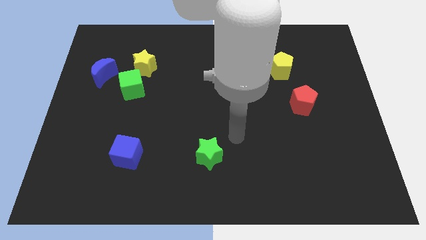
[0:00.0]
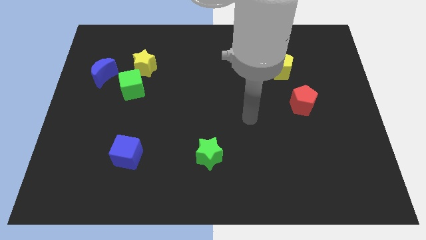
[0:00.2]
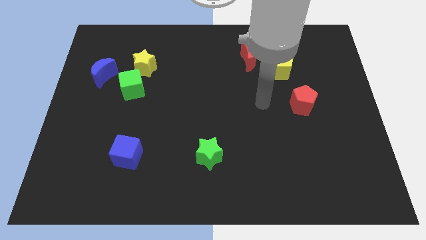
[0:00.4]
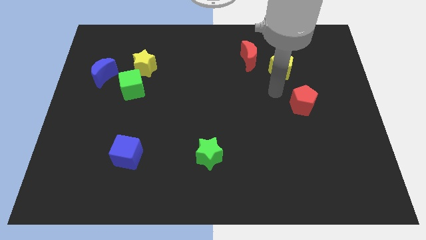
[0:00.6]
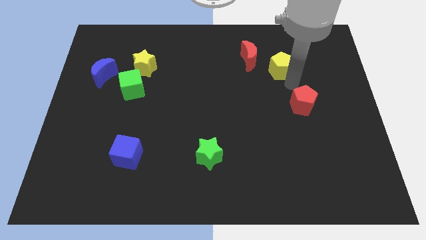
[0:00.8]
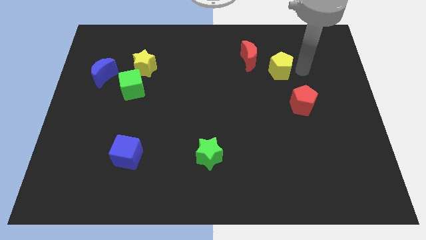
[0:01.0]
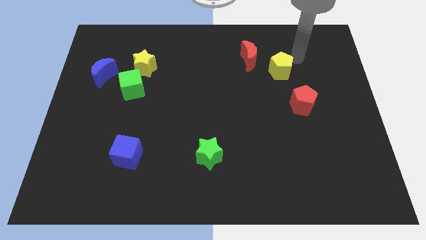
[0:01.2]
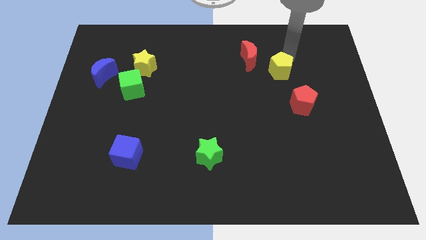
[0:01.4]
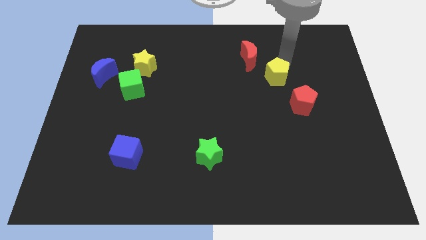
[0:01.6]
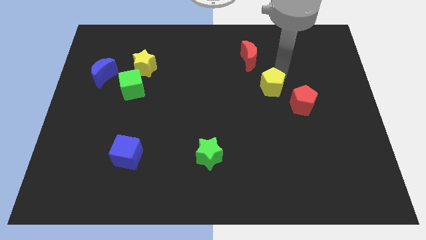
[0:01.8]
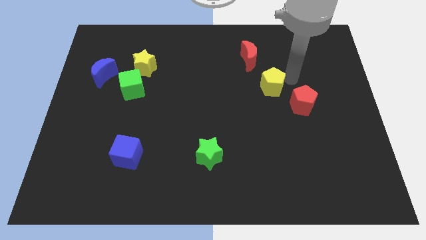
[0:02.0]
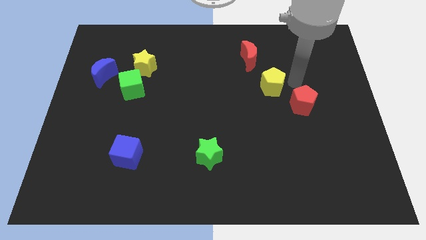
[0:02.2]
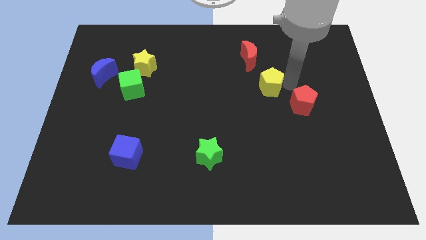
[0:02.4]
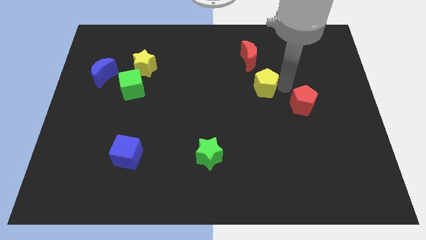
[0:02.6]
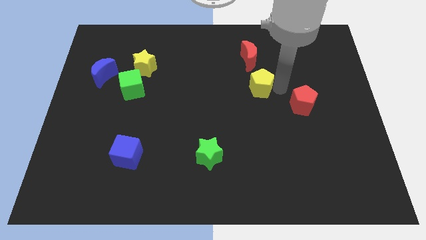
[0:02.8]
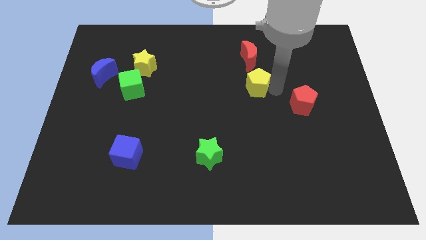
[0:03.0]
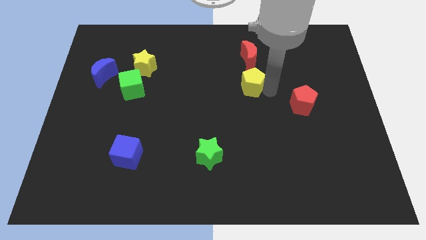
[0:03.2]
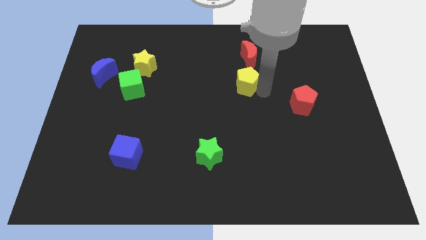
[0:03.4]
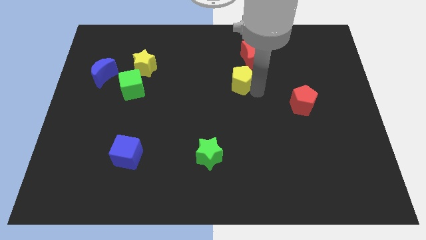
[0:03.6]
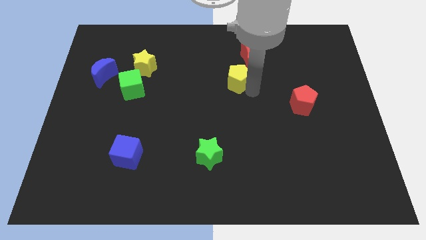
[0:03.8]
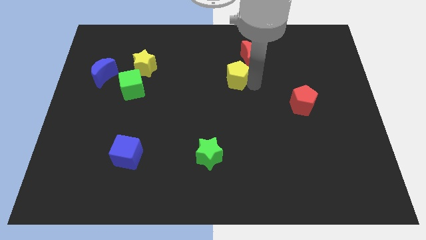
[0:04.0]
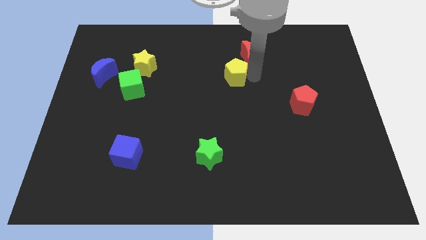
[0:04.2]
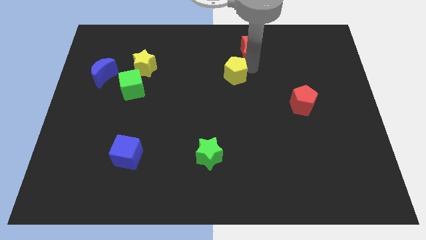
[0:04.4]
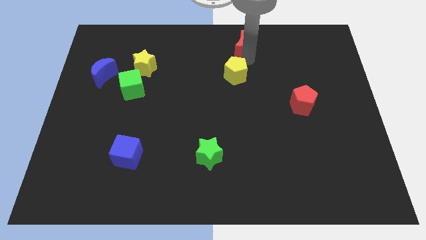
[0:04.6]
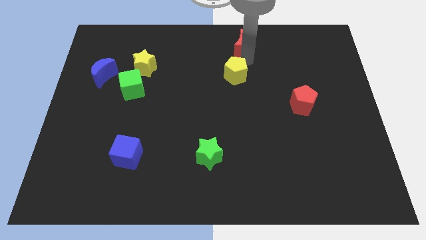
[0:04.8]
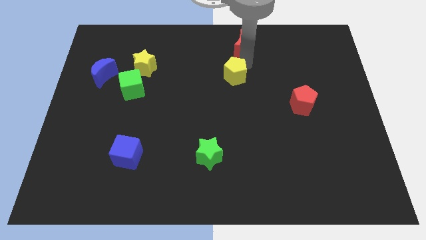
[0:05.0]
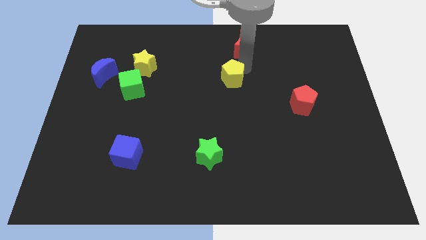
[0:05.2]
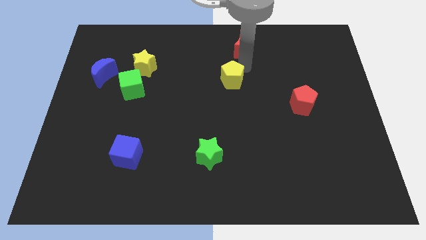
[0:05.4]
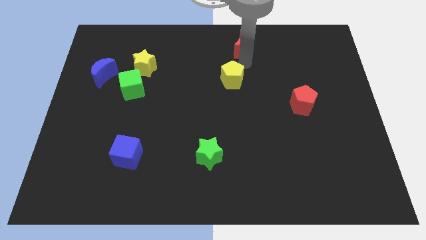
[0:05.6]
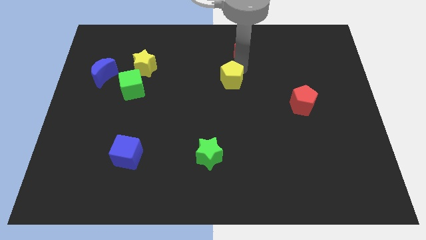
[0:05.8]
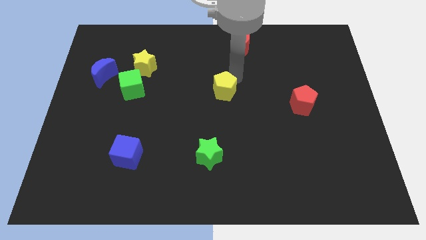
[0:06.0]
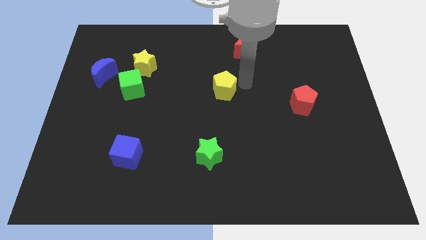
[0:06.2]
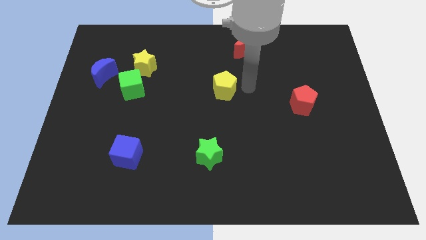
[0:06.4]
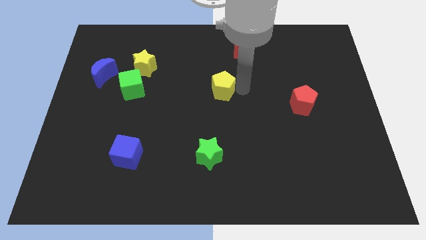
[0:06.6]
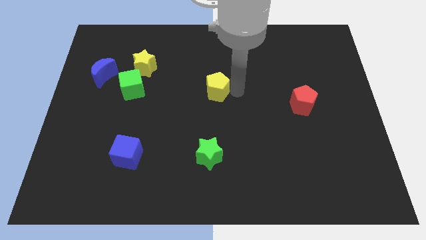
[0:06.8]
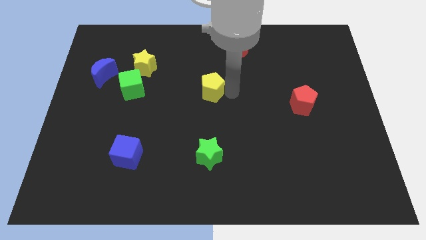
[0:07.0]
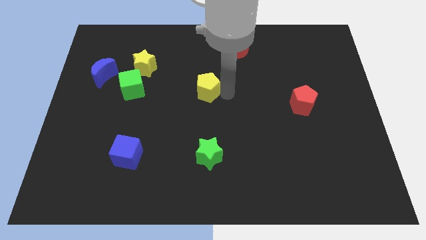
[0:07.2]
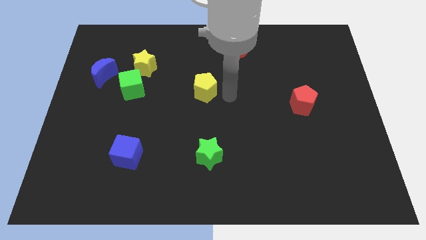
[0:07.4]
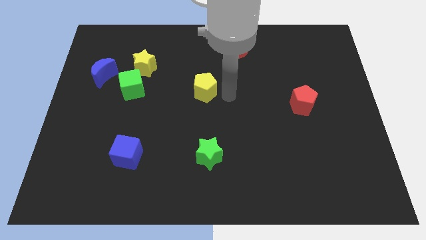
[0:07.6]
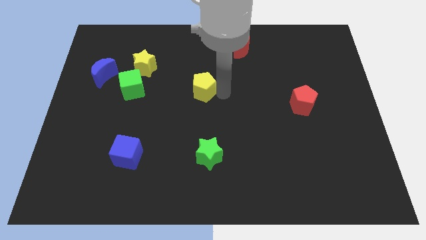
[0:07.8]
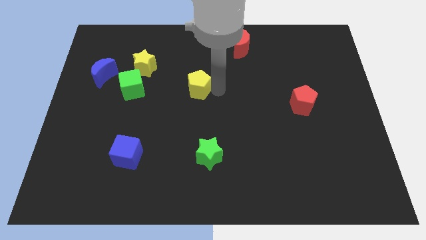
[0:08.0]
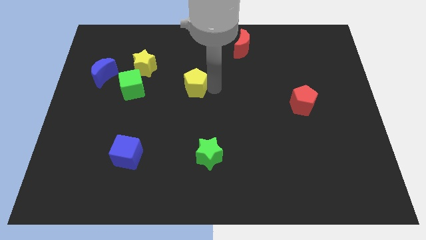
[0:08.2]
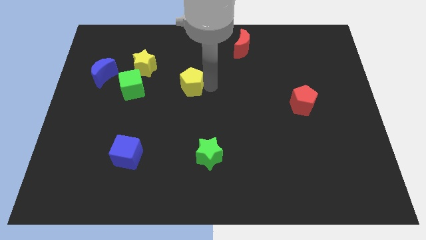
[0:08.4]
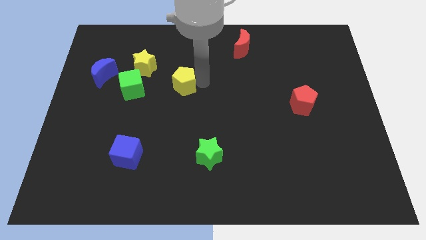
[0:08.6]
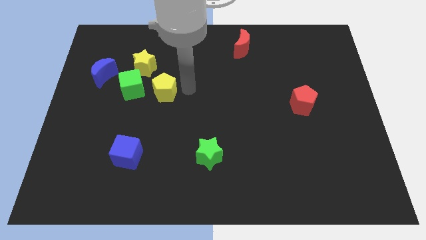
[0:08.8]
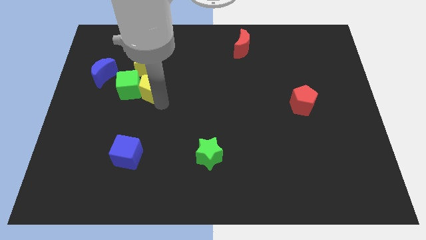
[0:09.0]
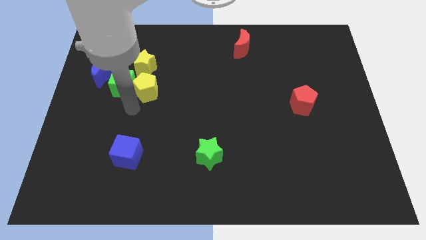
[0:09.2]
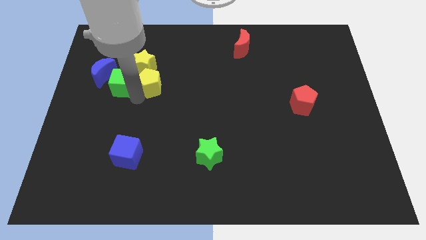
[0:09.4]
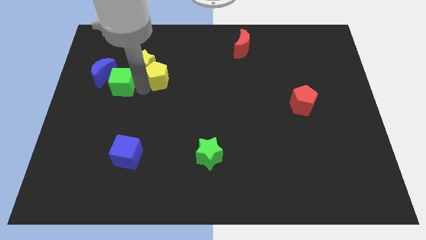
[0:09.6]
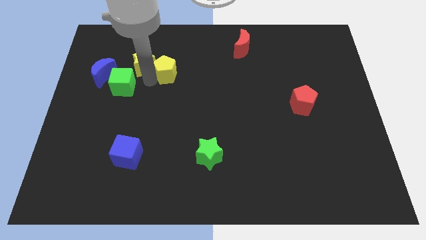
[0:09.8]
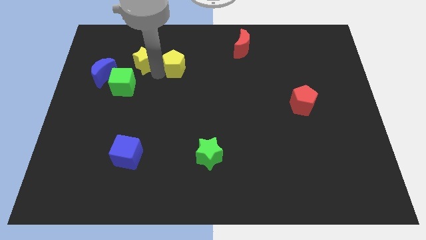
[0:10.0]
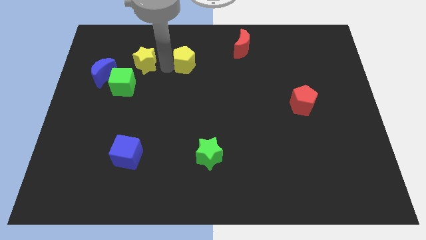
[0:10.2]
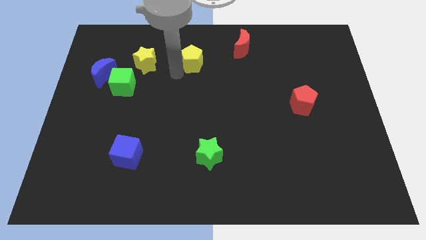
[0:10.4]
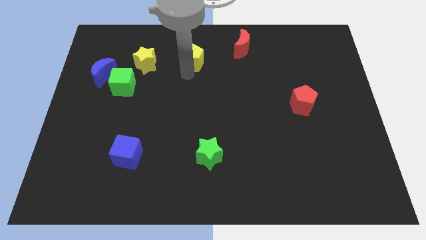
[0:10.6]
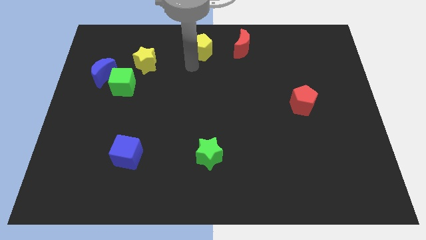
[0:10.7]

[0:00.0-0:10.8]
slide the yellow pentagon to the top

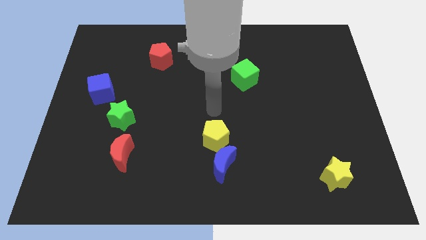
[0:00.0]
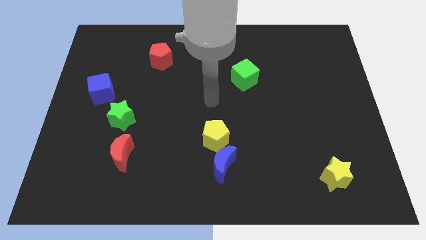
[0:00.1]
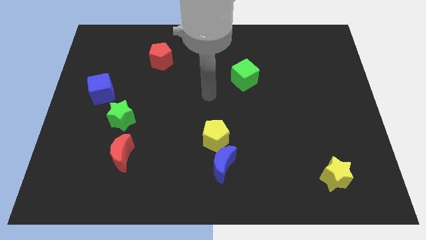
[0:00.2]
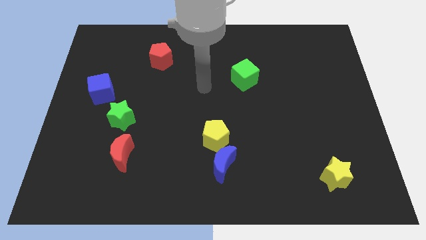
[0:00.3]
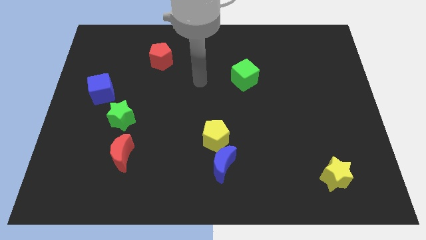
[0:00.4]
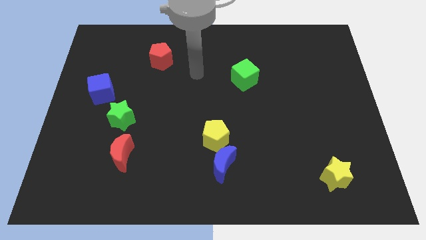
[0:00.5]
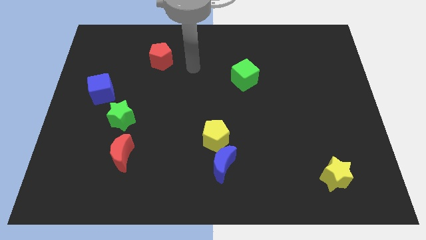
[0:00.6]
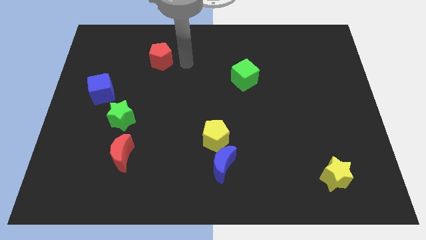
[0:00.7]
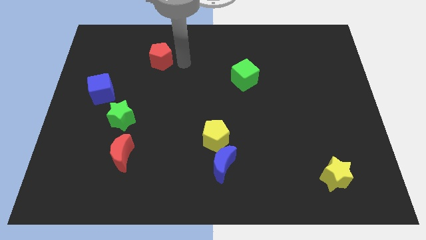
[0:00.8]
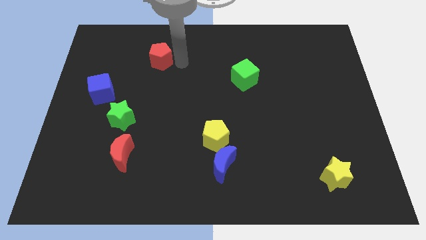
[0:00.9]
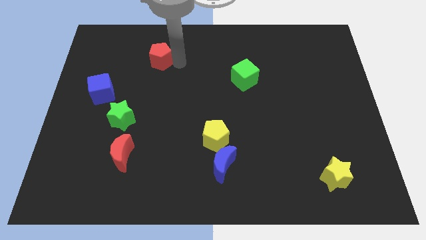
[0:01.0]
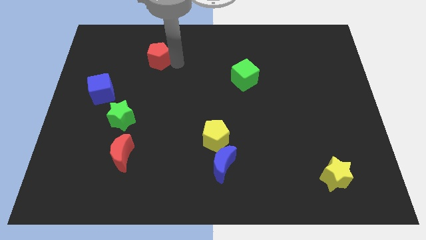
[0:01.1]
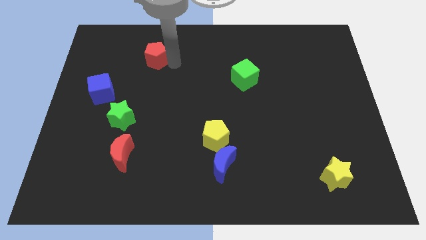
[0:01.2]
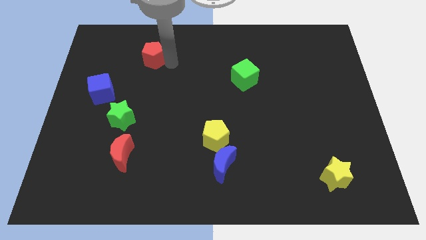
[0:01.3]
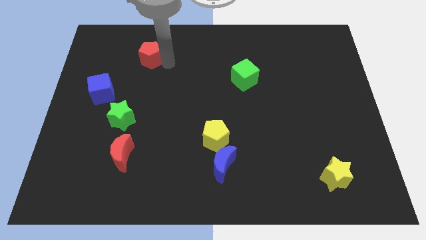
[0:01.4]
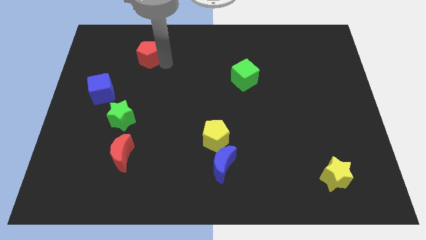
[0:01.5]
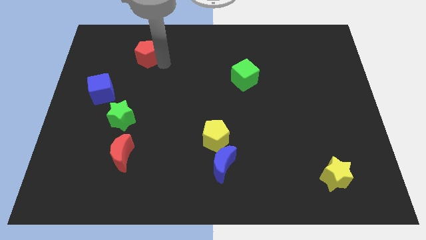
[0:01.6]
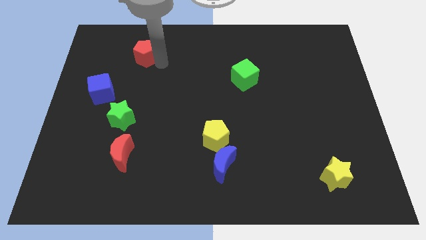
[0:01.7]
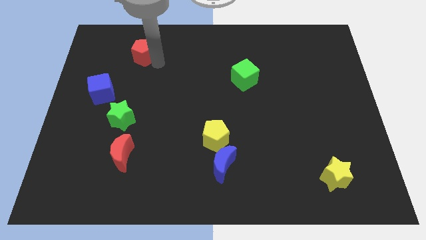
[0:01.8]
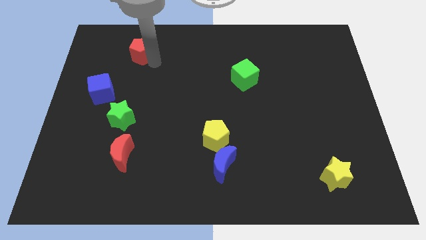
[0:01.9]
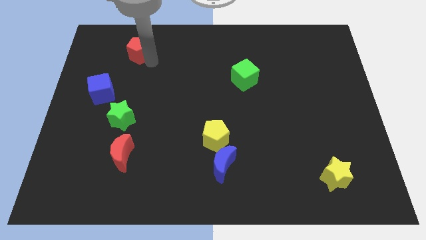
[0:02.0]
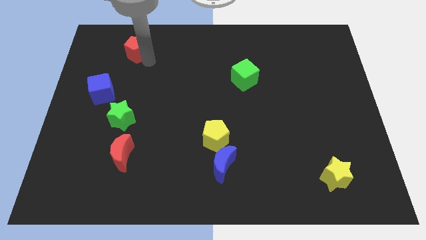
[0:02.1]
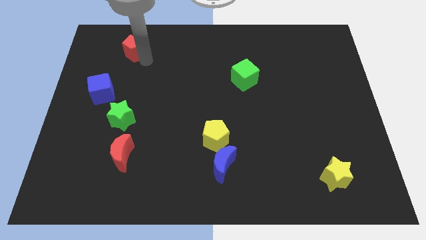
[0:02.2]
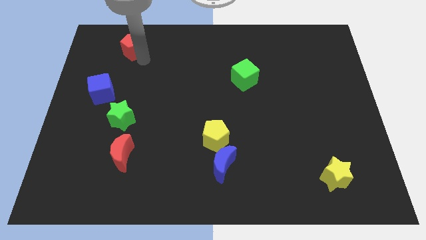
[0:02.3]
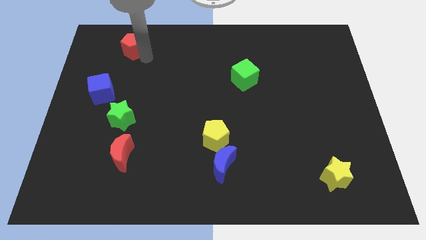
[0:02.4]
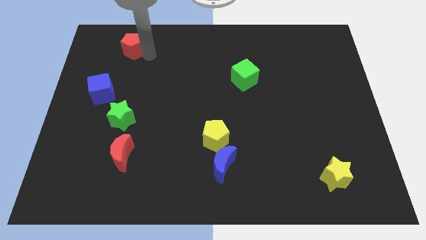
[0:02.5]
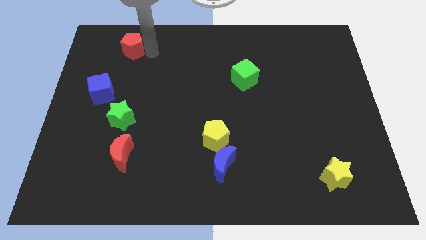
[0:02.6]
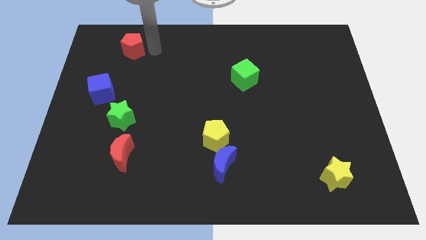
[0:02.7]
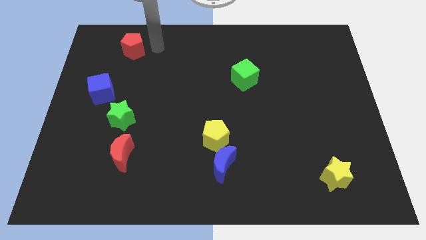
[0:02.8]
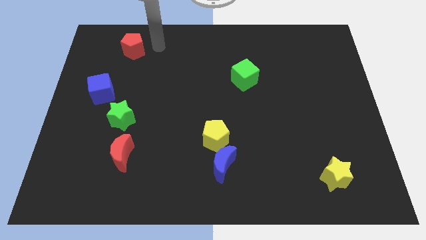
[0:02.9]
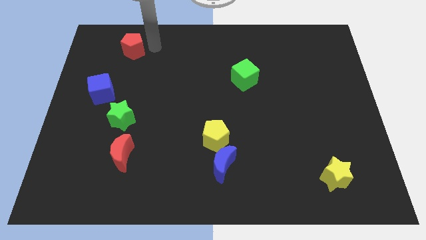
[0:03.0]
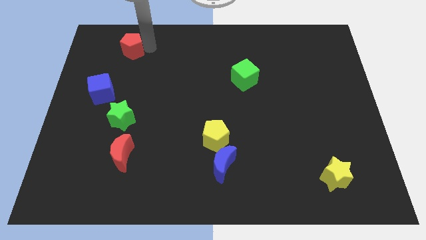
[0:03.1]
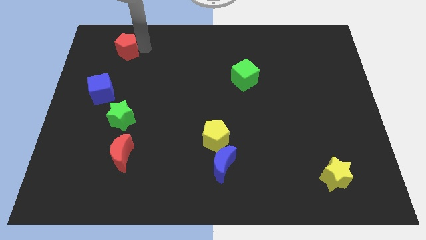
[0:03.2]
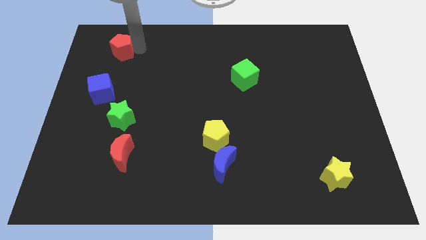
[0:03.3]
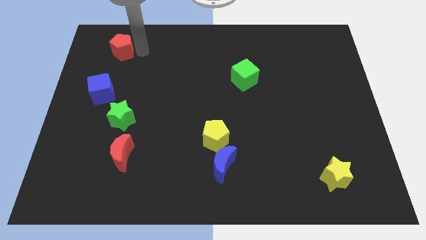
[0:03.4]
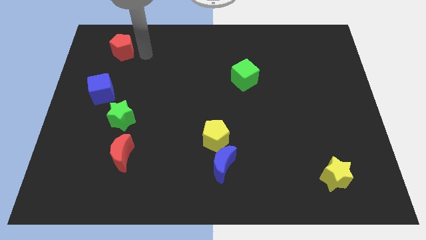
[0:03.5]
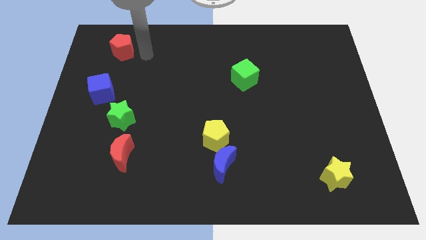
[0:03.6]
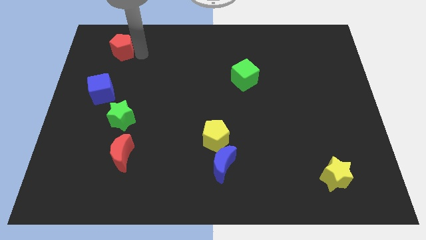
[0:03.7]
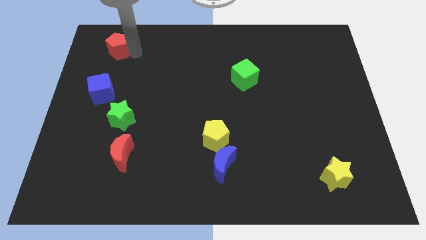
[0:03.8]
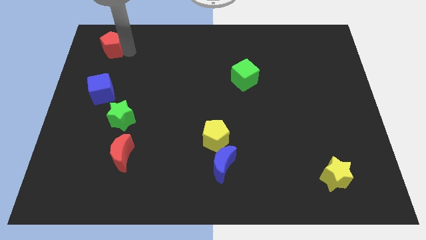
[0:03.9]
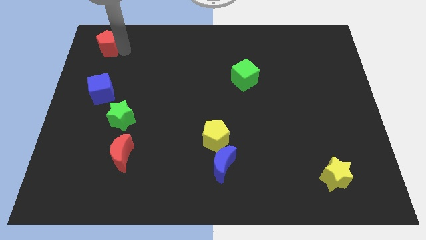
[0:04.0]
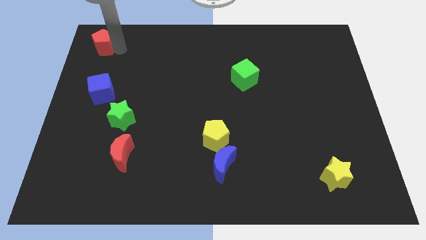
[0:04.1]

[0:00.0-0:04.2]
move the red pentagon to the top left corner
